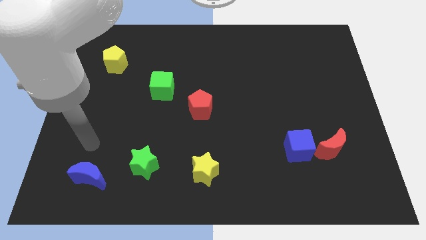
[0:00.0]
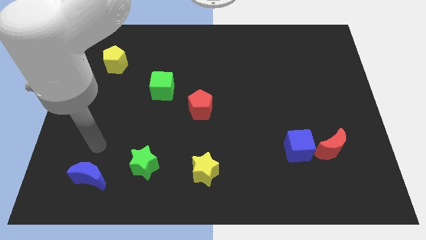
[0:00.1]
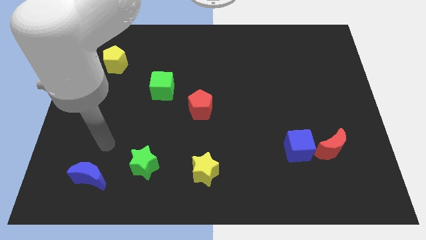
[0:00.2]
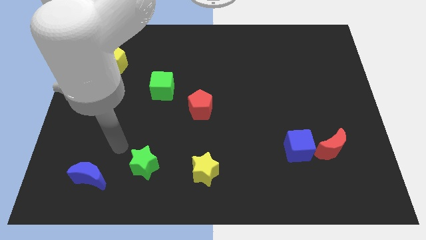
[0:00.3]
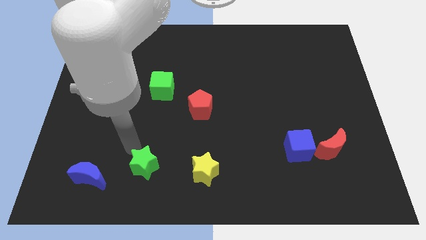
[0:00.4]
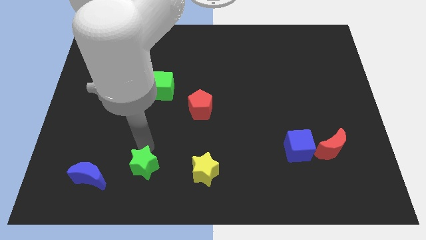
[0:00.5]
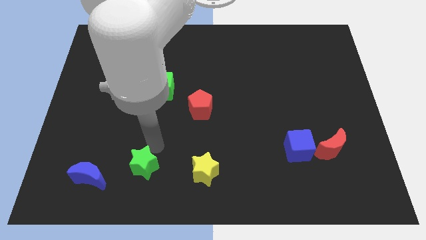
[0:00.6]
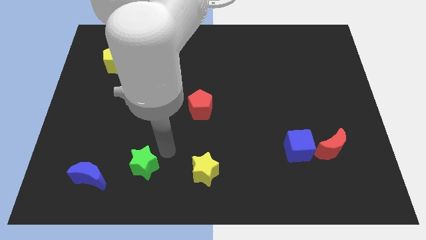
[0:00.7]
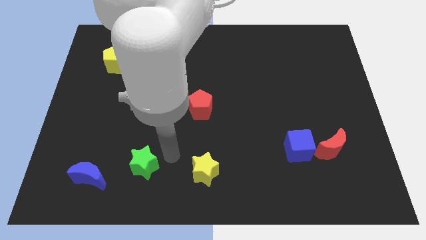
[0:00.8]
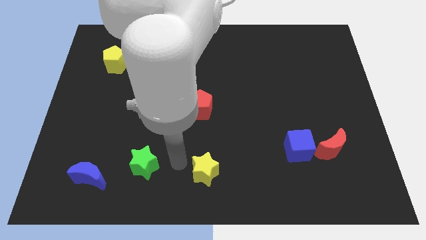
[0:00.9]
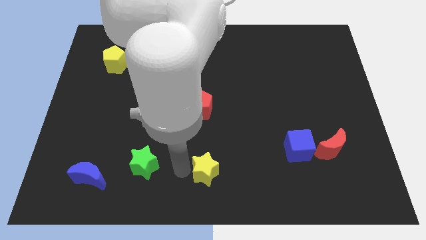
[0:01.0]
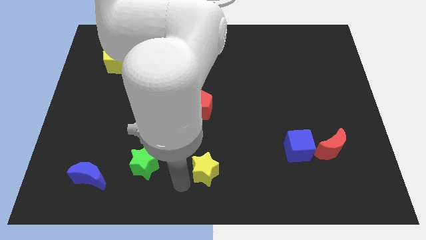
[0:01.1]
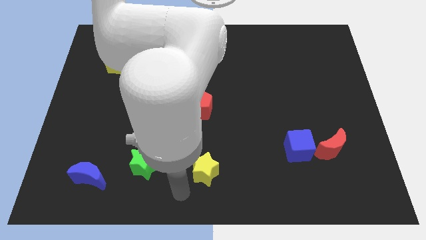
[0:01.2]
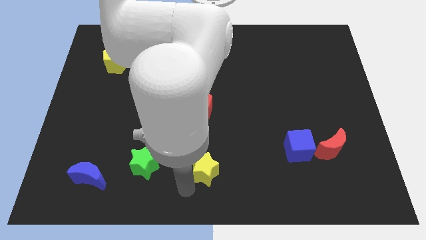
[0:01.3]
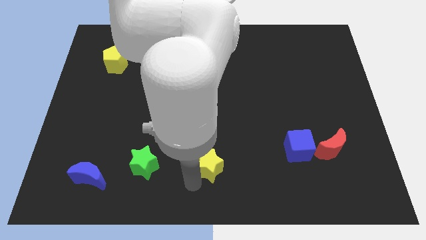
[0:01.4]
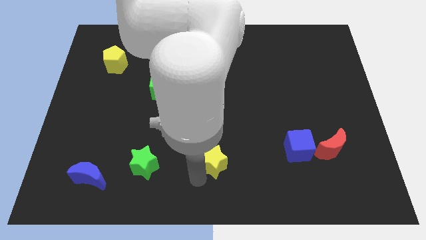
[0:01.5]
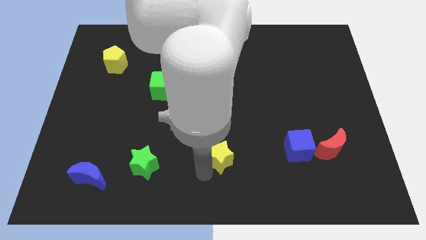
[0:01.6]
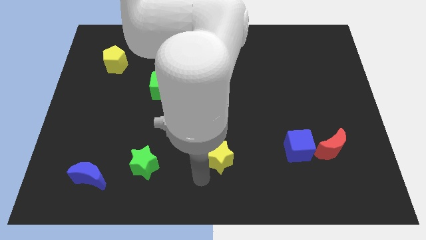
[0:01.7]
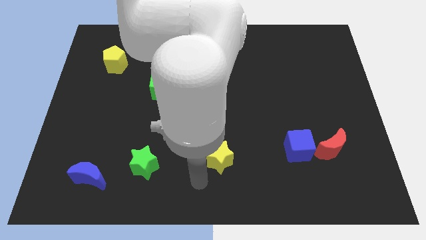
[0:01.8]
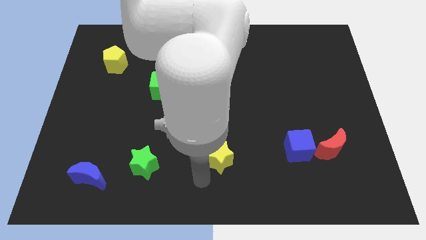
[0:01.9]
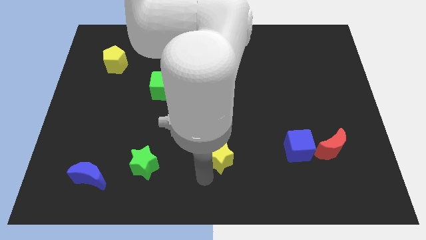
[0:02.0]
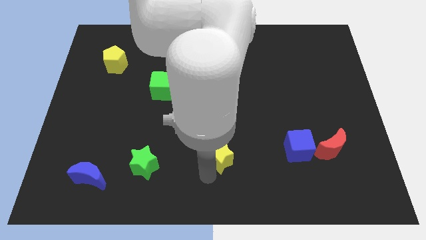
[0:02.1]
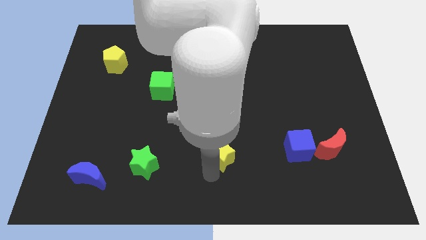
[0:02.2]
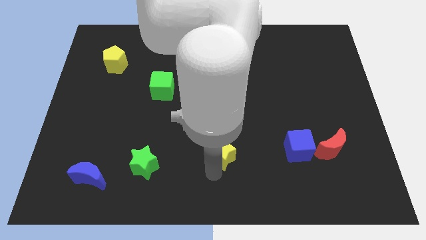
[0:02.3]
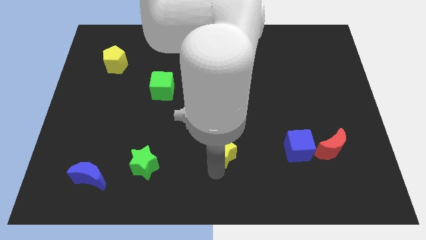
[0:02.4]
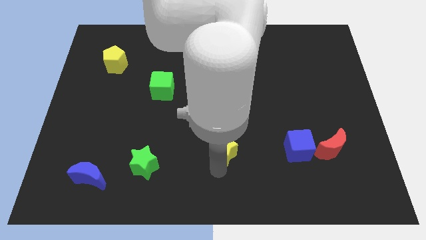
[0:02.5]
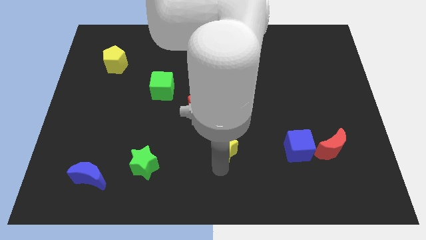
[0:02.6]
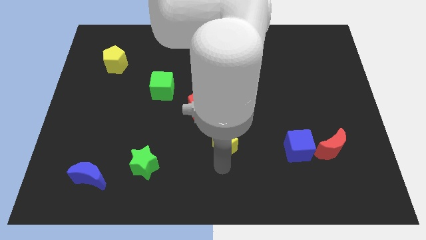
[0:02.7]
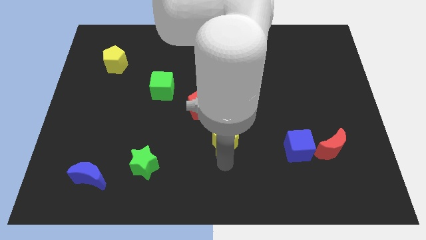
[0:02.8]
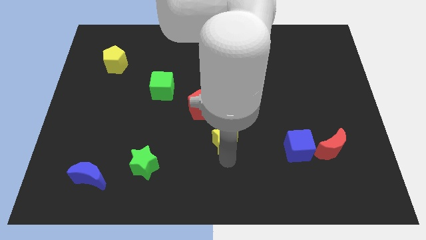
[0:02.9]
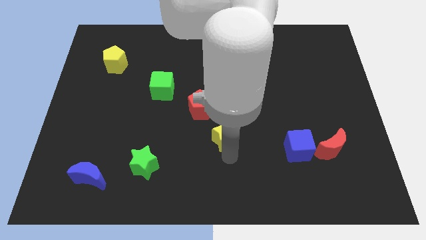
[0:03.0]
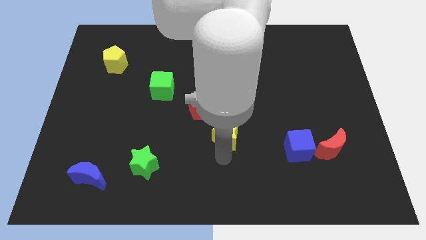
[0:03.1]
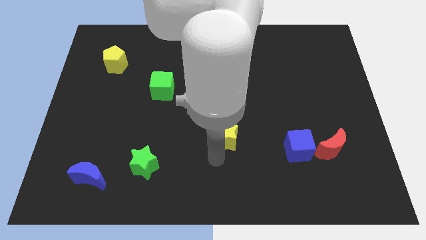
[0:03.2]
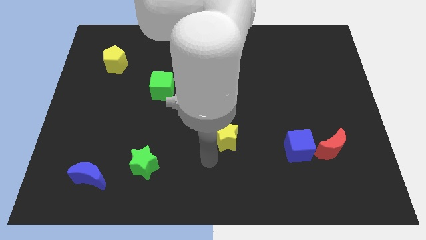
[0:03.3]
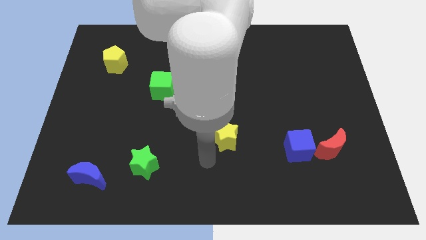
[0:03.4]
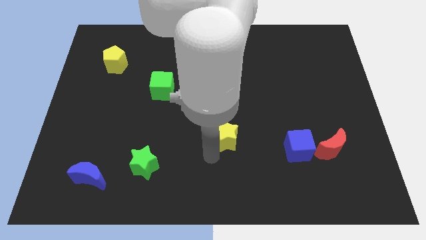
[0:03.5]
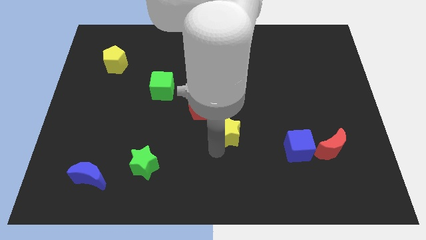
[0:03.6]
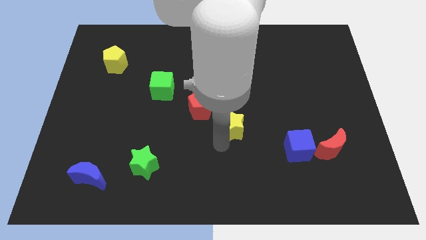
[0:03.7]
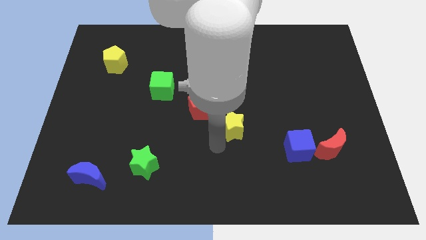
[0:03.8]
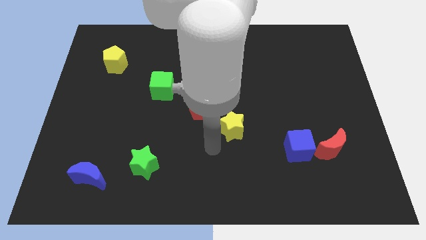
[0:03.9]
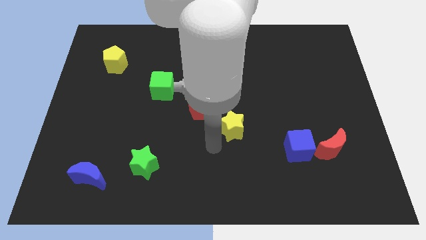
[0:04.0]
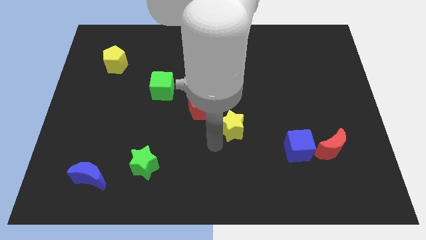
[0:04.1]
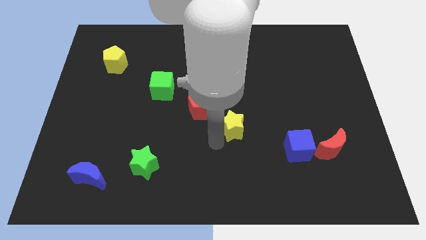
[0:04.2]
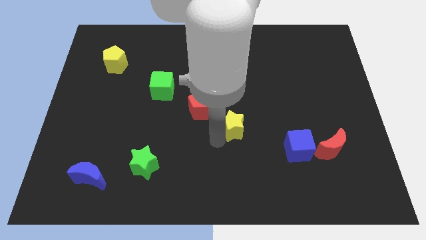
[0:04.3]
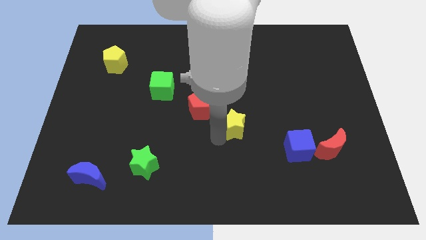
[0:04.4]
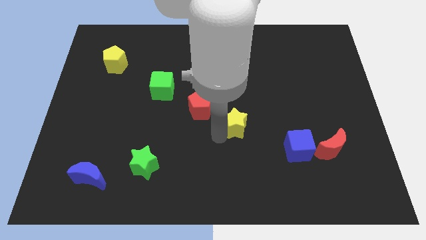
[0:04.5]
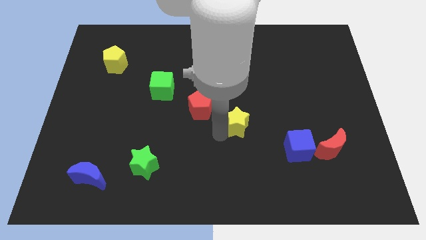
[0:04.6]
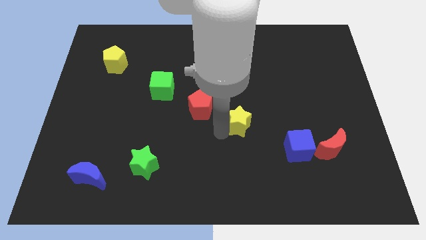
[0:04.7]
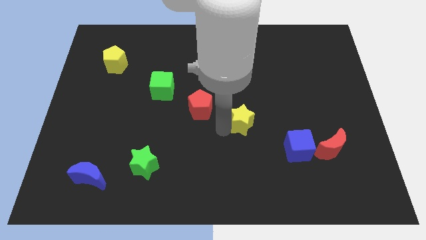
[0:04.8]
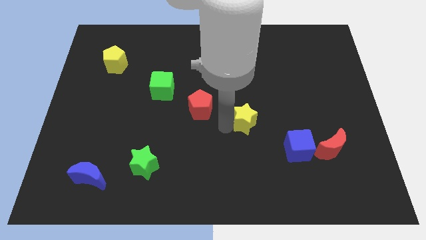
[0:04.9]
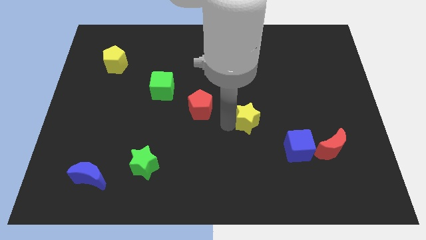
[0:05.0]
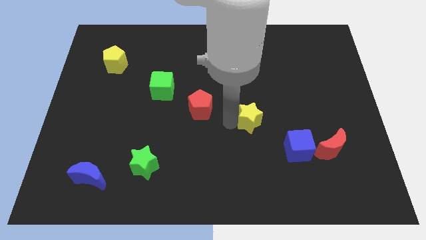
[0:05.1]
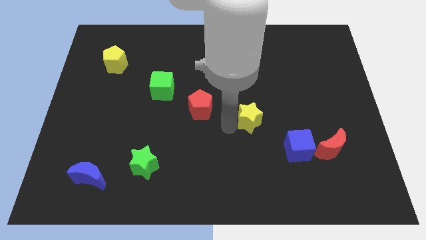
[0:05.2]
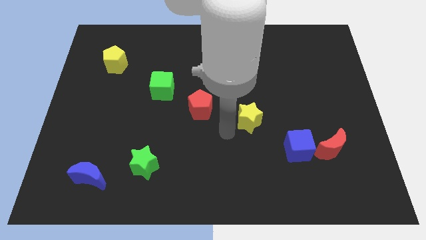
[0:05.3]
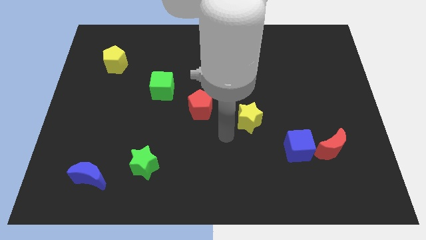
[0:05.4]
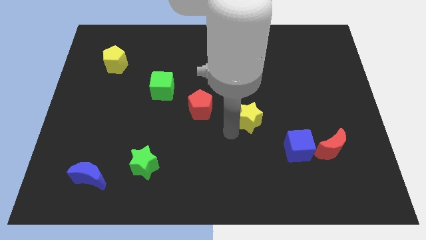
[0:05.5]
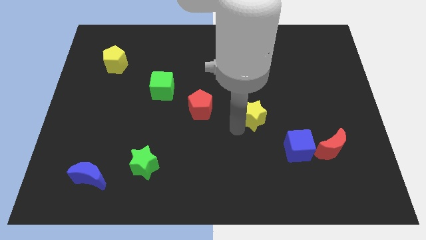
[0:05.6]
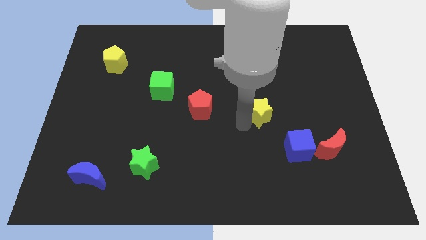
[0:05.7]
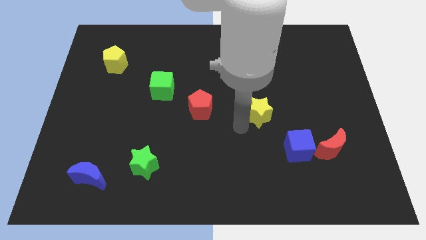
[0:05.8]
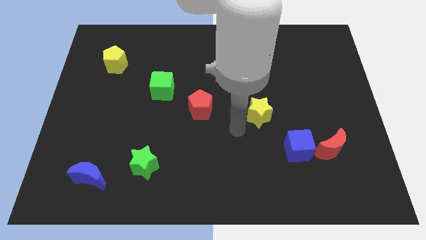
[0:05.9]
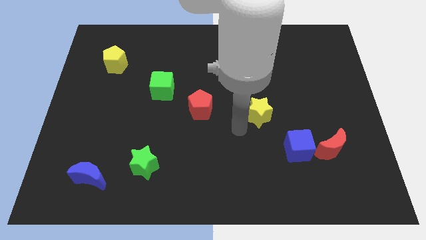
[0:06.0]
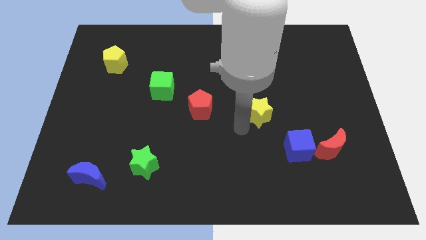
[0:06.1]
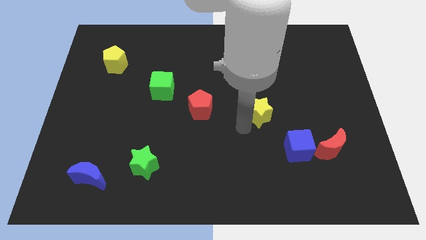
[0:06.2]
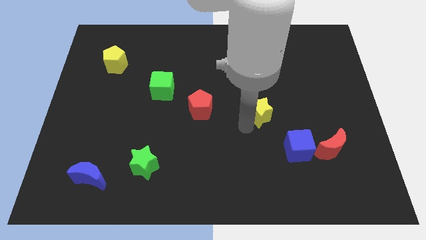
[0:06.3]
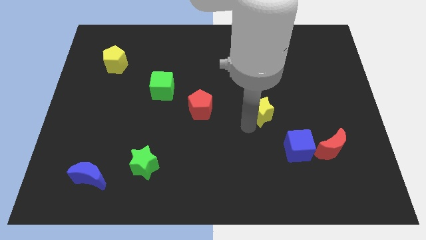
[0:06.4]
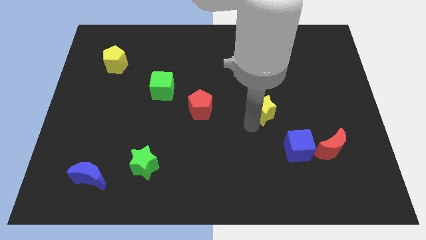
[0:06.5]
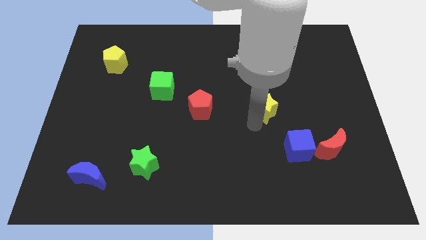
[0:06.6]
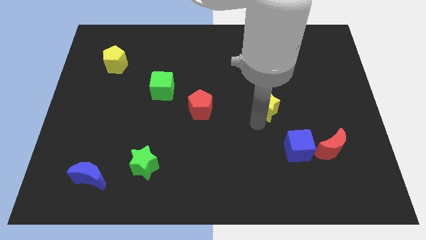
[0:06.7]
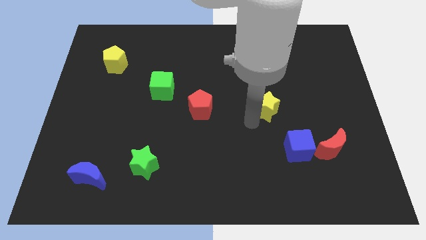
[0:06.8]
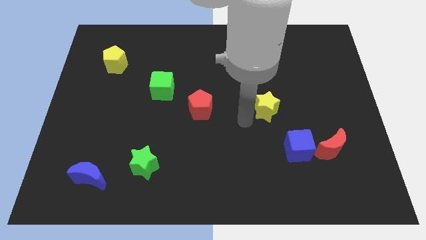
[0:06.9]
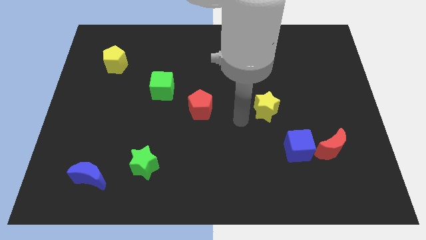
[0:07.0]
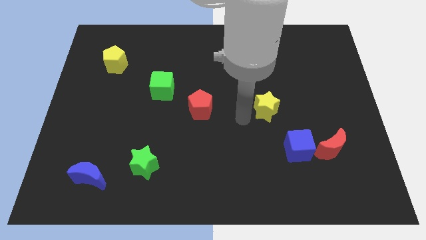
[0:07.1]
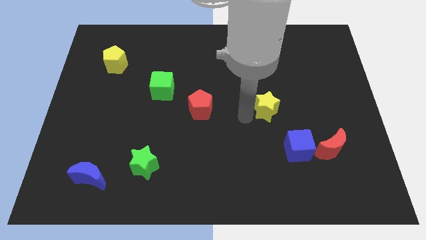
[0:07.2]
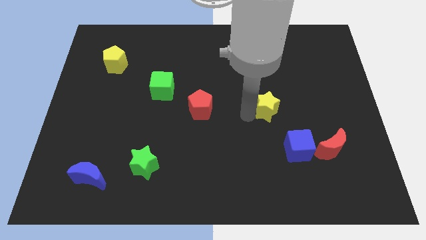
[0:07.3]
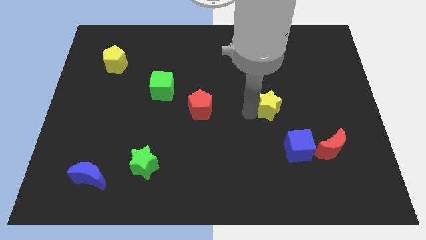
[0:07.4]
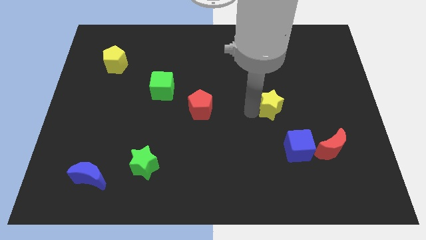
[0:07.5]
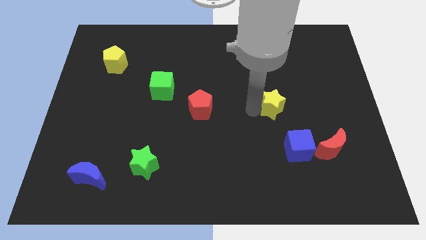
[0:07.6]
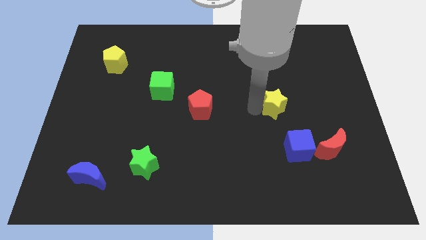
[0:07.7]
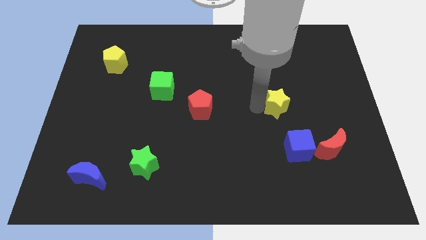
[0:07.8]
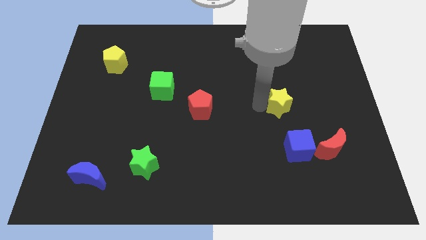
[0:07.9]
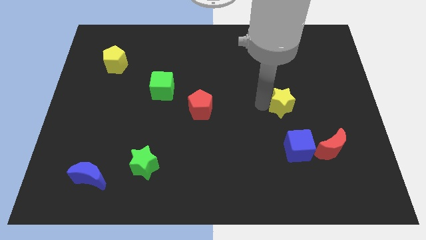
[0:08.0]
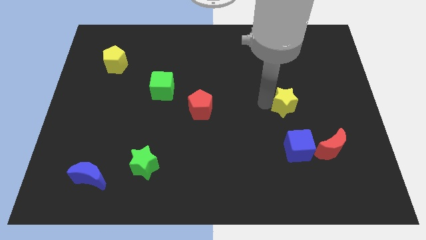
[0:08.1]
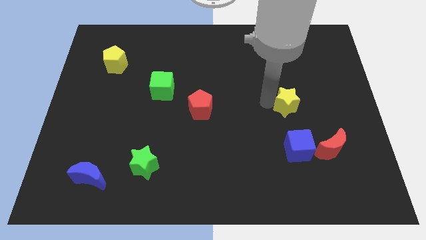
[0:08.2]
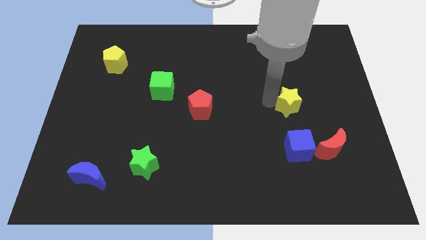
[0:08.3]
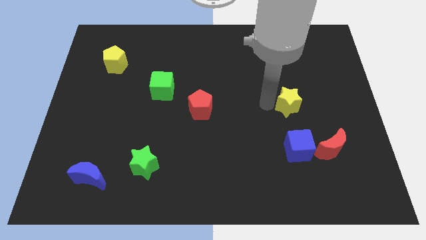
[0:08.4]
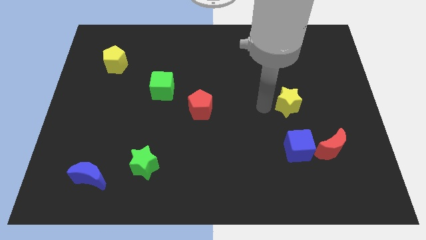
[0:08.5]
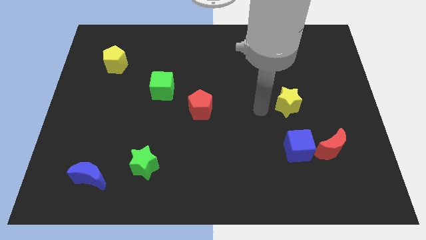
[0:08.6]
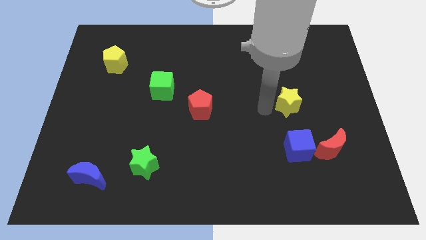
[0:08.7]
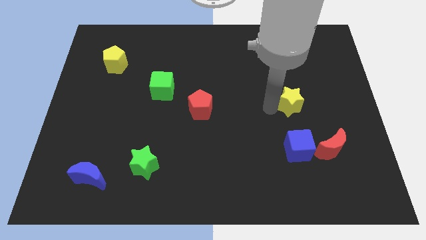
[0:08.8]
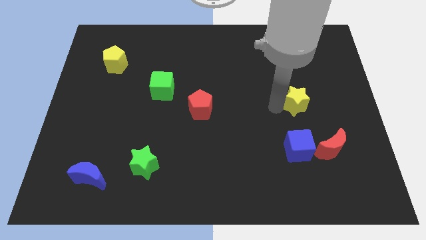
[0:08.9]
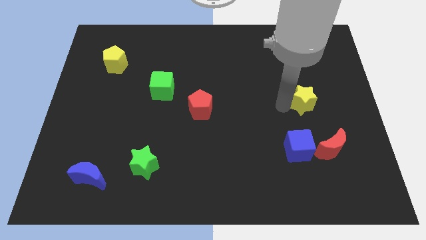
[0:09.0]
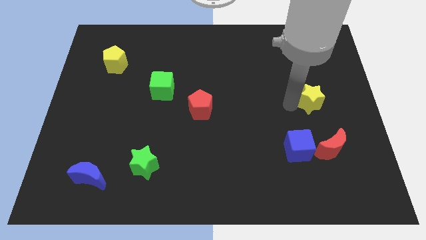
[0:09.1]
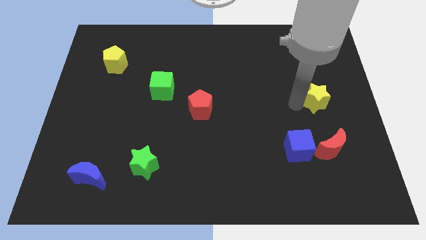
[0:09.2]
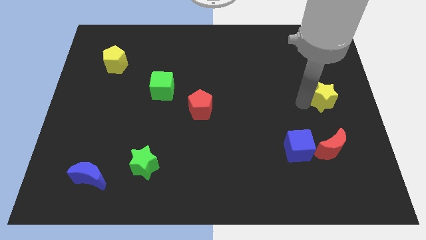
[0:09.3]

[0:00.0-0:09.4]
move the yellow star to the right side
